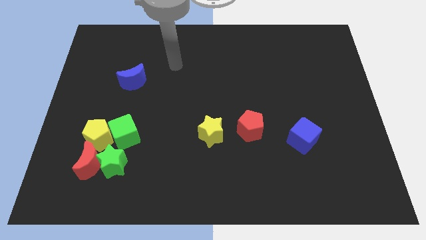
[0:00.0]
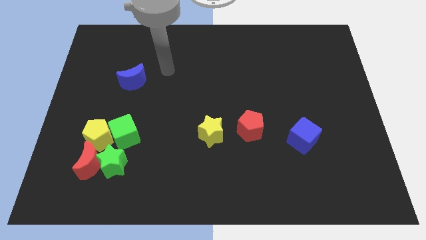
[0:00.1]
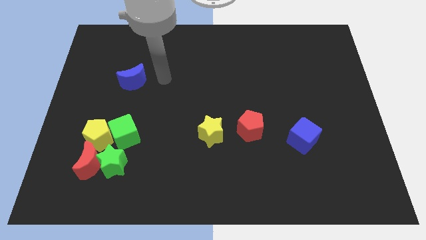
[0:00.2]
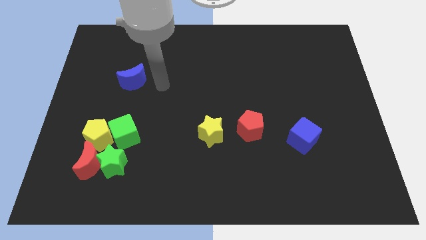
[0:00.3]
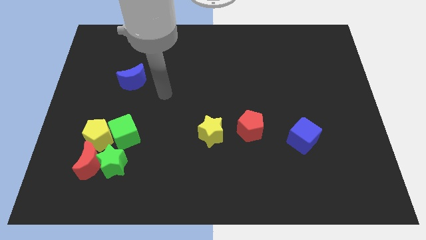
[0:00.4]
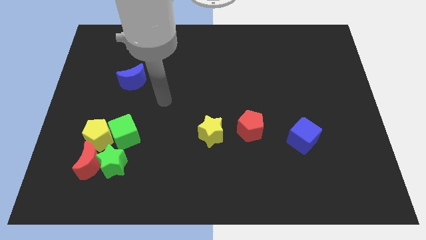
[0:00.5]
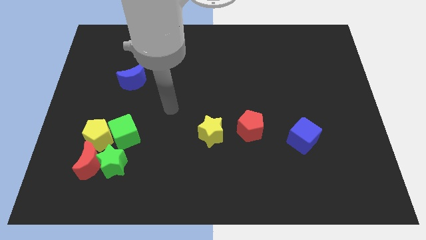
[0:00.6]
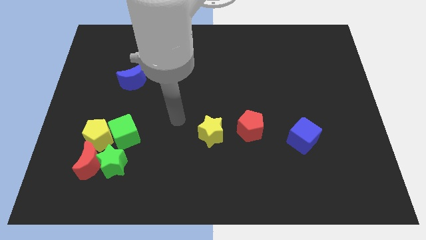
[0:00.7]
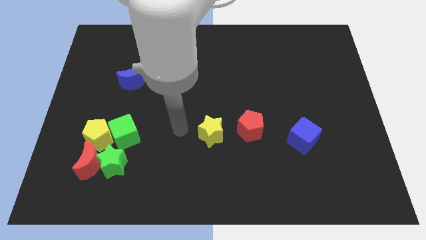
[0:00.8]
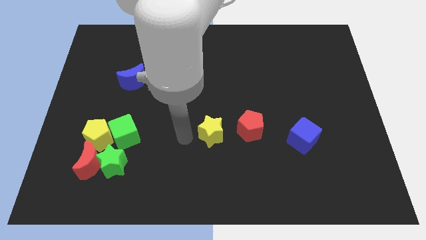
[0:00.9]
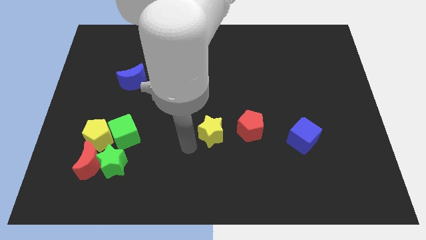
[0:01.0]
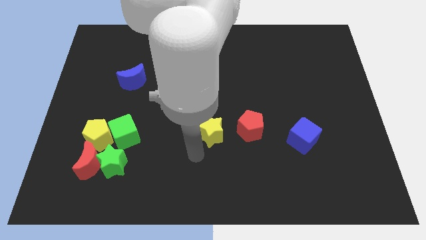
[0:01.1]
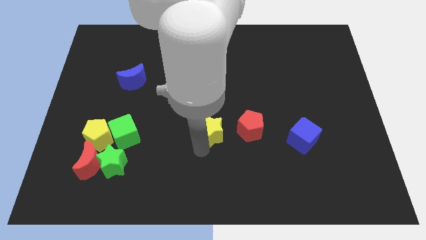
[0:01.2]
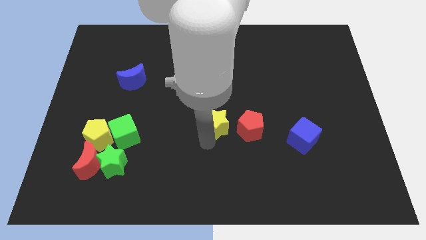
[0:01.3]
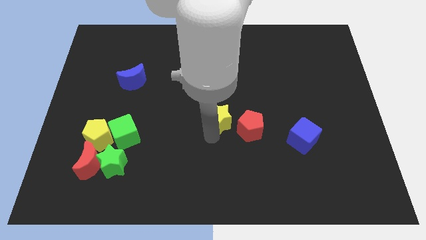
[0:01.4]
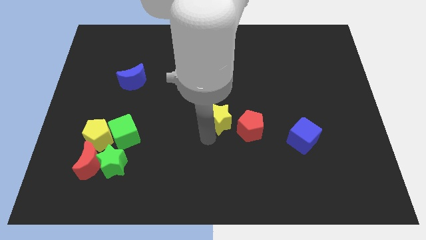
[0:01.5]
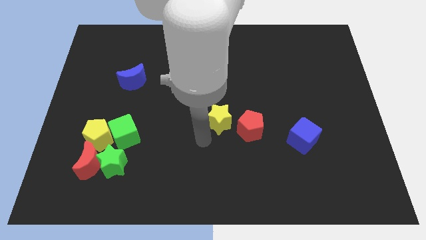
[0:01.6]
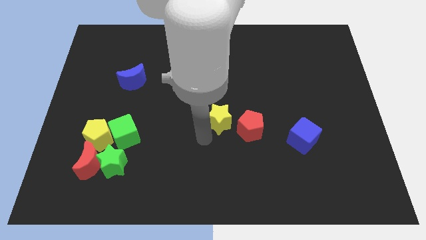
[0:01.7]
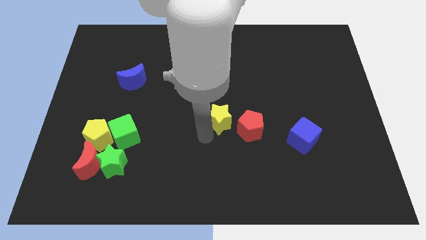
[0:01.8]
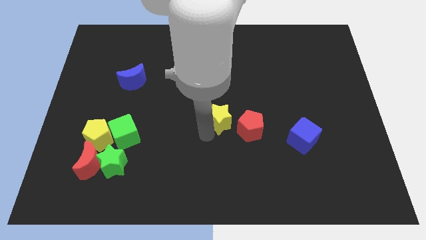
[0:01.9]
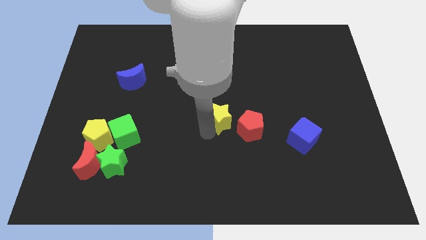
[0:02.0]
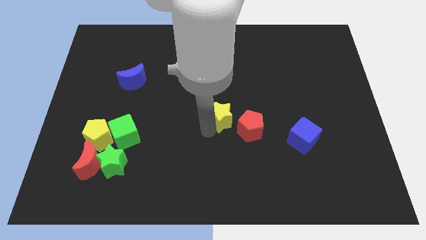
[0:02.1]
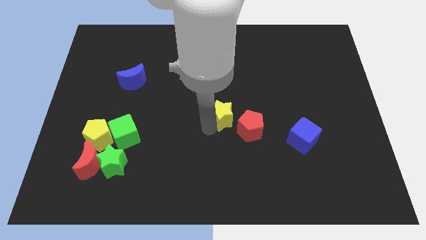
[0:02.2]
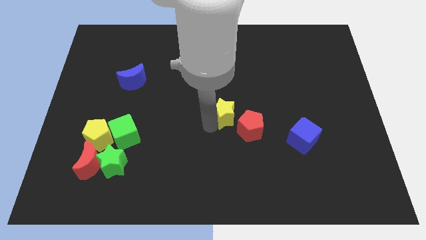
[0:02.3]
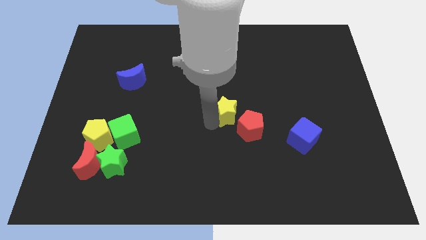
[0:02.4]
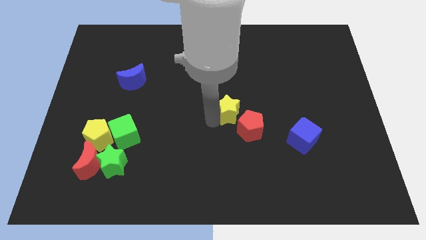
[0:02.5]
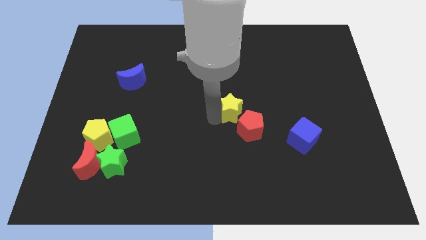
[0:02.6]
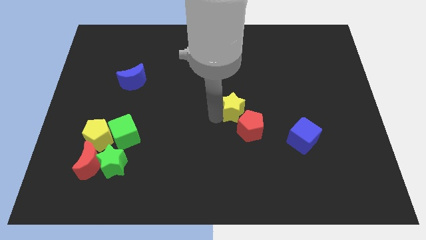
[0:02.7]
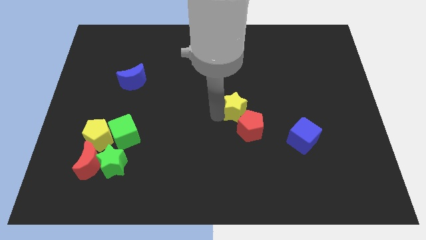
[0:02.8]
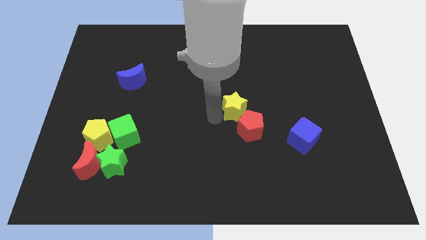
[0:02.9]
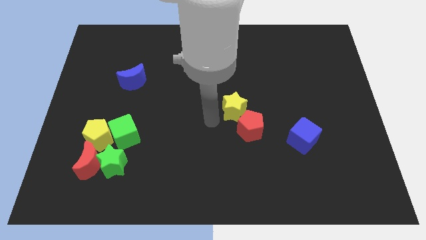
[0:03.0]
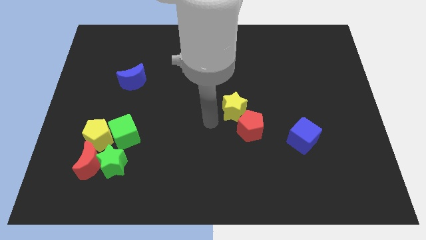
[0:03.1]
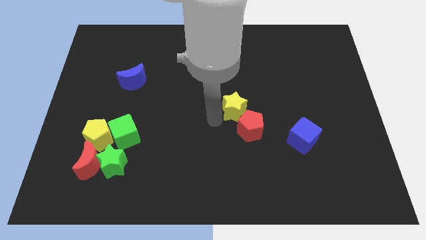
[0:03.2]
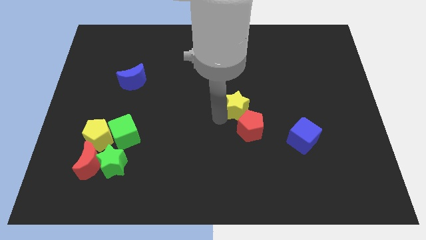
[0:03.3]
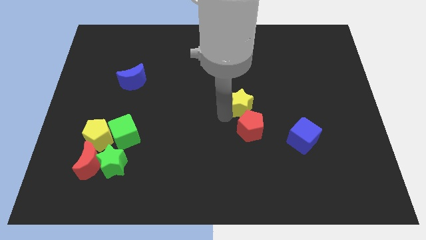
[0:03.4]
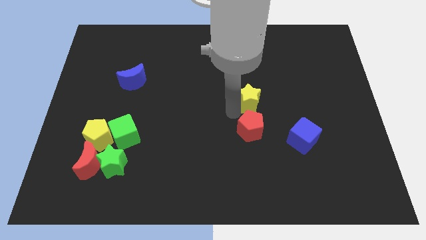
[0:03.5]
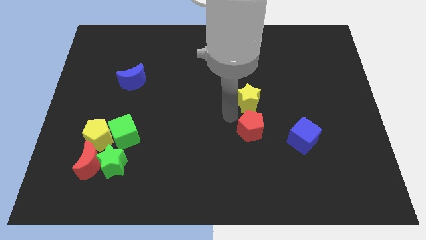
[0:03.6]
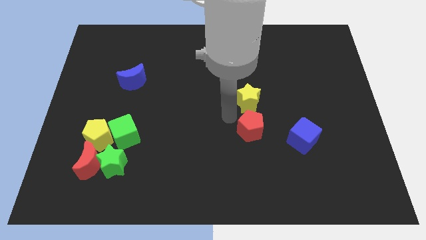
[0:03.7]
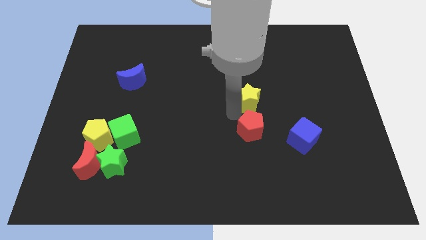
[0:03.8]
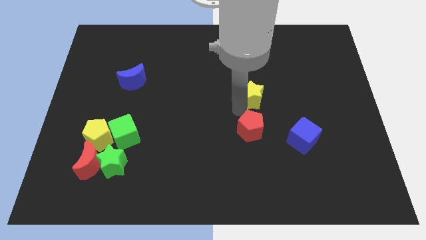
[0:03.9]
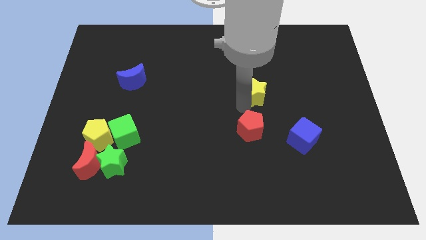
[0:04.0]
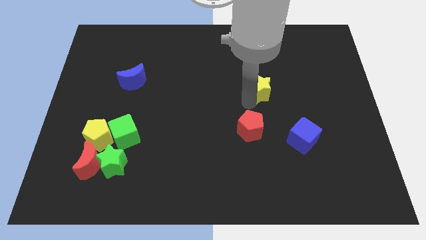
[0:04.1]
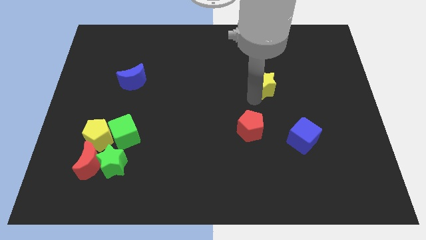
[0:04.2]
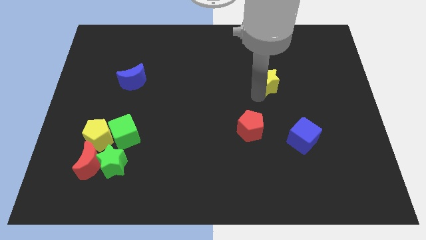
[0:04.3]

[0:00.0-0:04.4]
slide the yellow star upwards and to the right diagonally

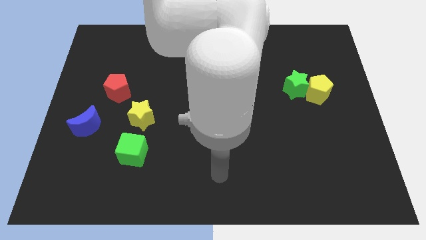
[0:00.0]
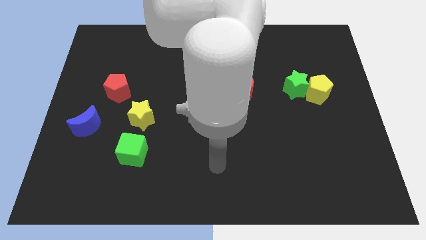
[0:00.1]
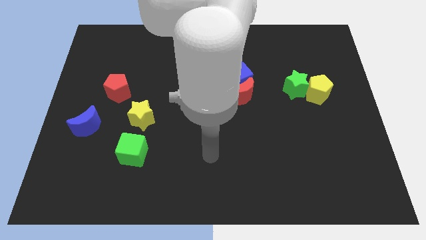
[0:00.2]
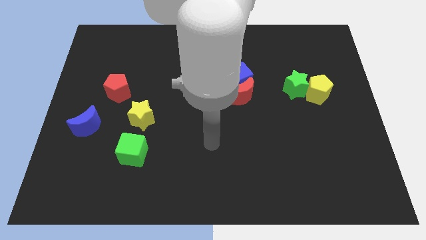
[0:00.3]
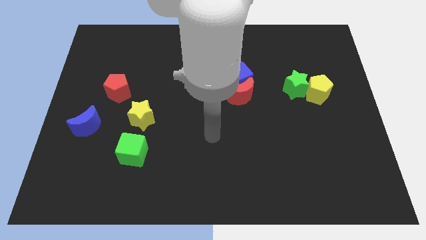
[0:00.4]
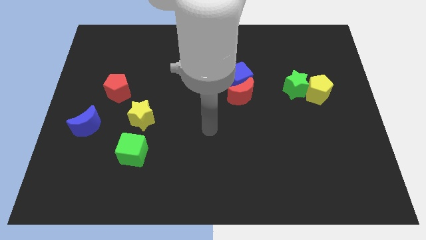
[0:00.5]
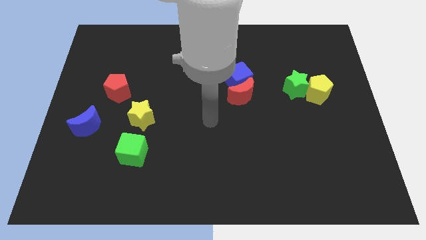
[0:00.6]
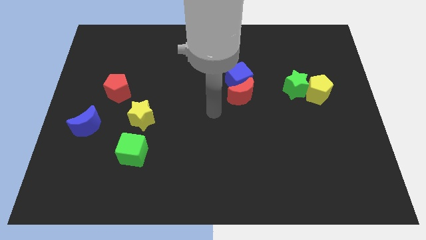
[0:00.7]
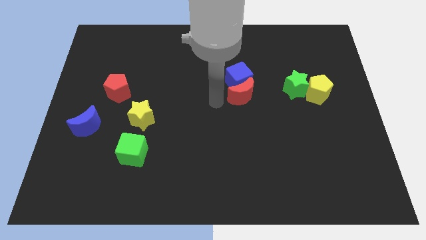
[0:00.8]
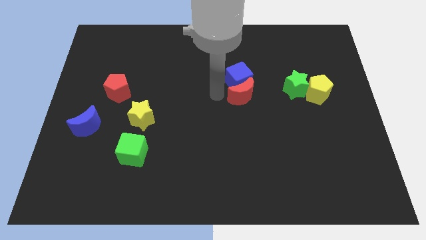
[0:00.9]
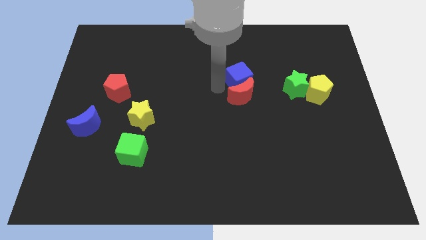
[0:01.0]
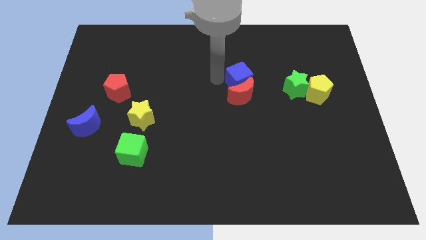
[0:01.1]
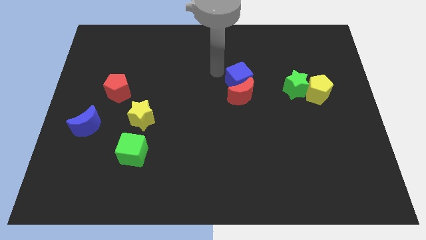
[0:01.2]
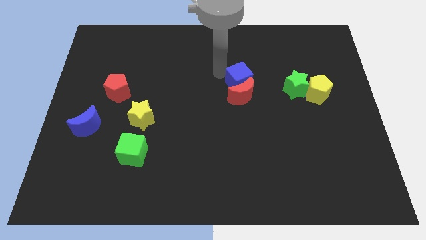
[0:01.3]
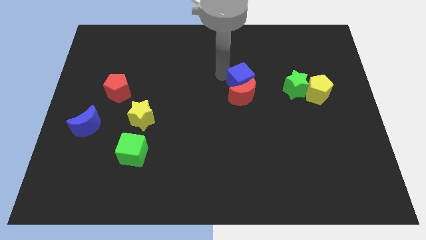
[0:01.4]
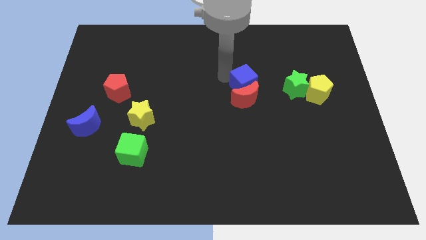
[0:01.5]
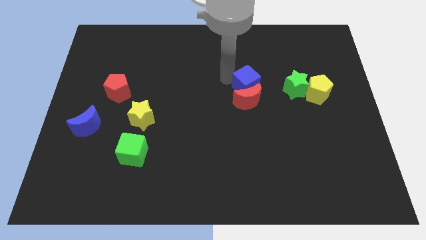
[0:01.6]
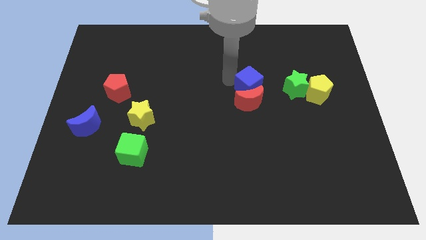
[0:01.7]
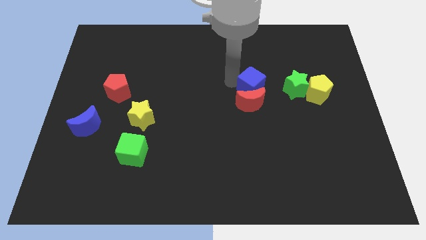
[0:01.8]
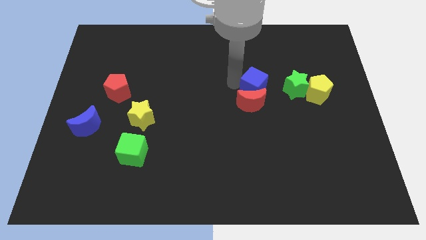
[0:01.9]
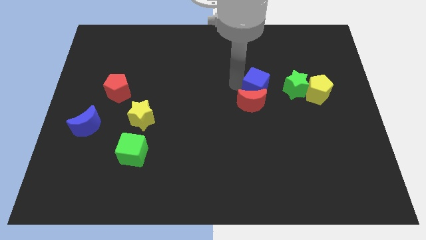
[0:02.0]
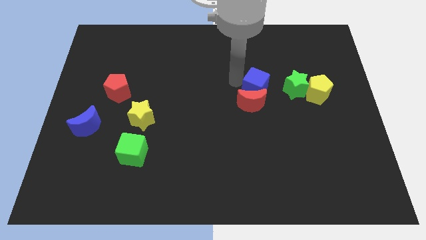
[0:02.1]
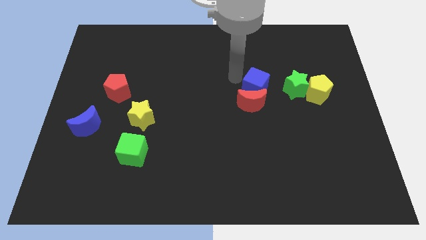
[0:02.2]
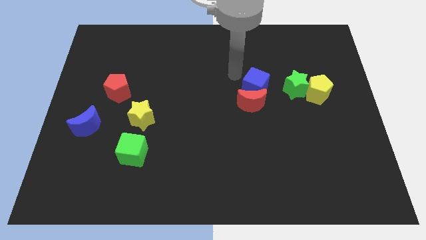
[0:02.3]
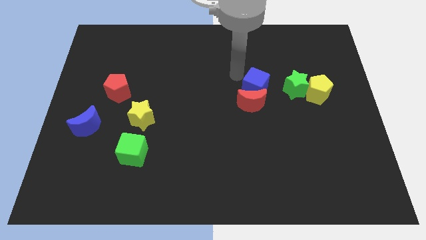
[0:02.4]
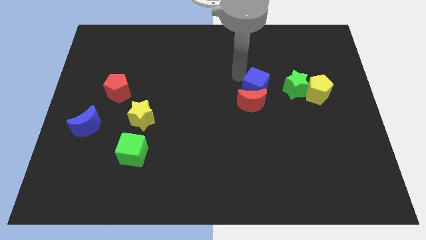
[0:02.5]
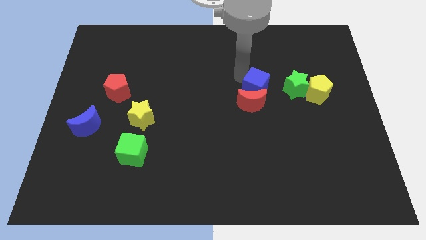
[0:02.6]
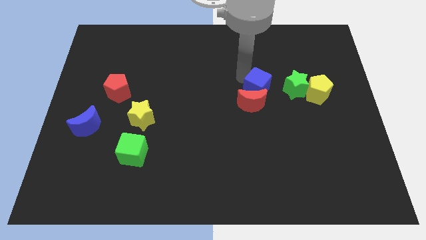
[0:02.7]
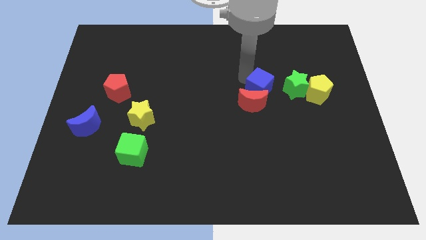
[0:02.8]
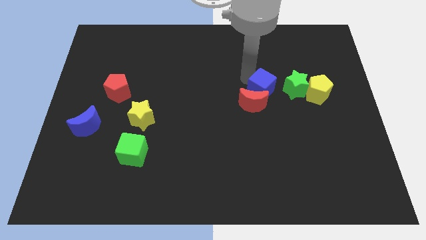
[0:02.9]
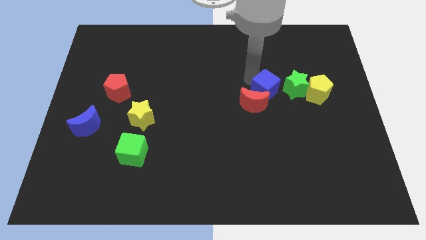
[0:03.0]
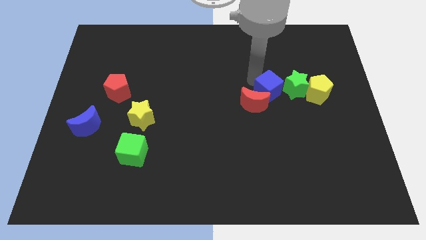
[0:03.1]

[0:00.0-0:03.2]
push the blue cube downwards and then to the right slightly

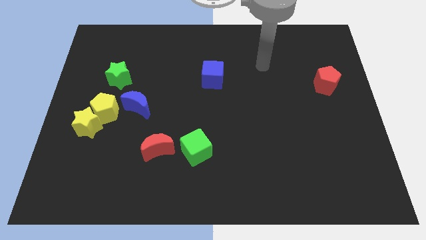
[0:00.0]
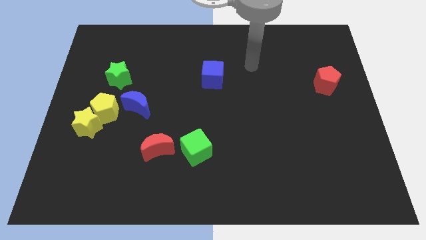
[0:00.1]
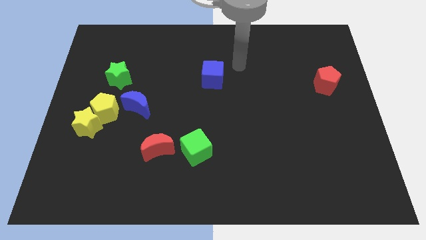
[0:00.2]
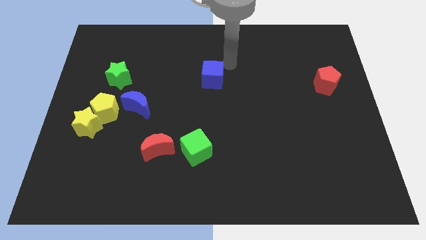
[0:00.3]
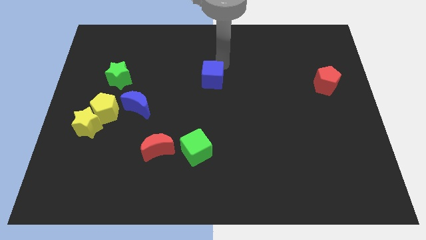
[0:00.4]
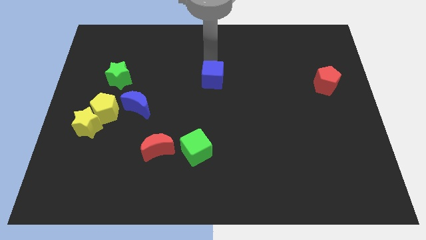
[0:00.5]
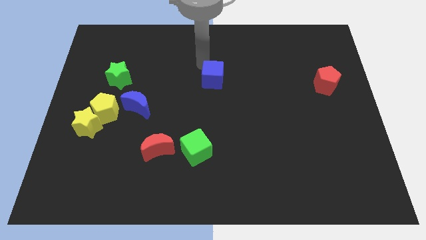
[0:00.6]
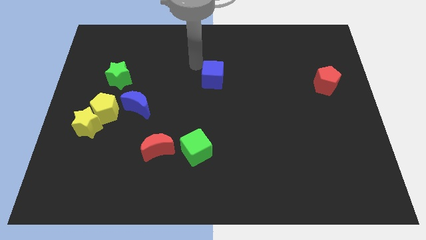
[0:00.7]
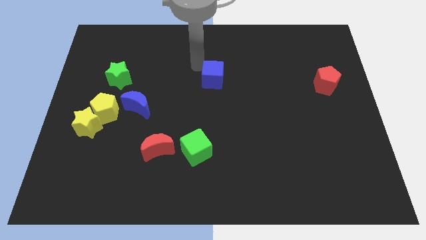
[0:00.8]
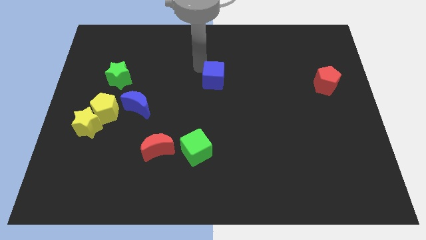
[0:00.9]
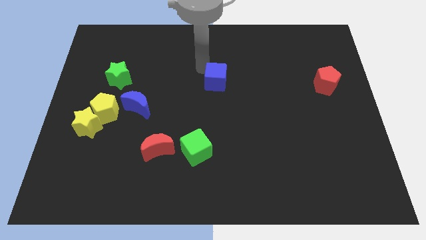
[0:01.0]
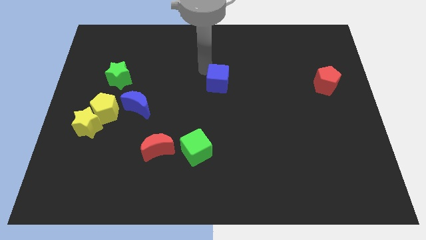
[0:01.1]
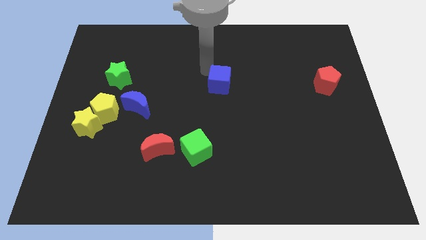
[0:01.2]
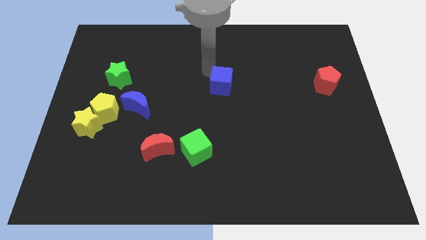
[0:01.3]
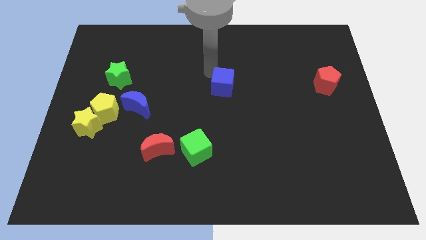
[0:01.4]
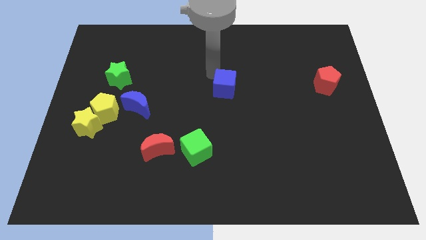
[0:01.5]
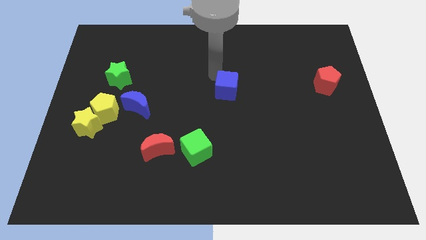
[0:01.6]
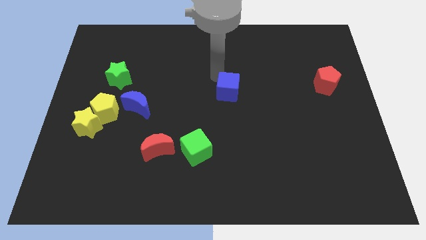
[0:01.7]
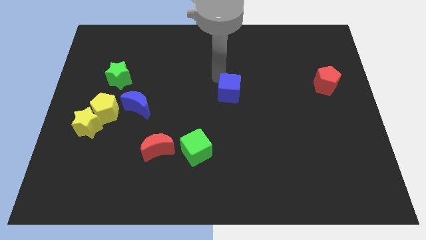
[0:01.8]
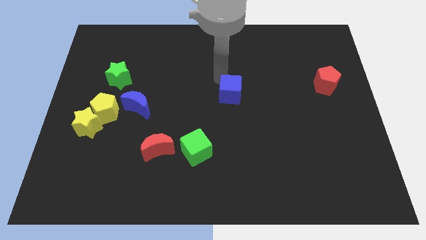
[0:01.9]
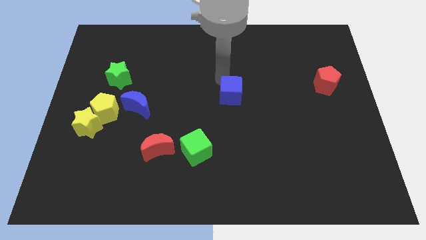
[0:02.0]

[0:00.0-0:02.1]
slightly move the blue cube downwards and right diagonally
